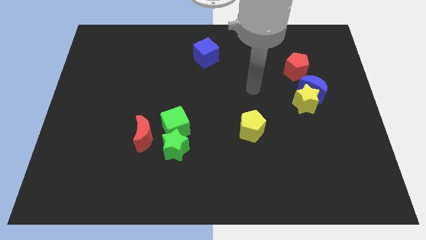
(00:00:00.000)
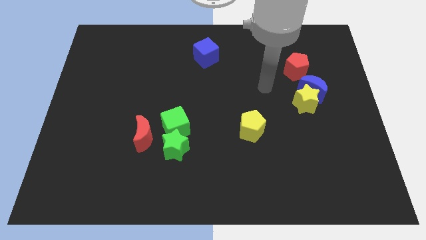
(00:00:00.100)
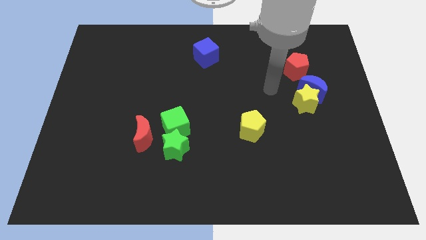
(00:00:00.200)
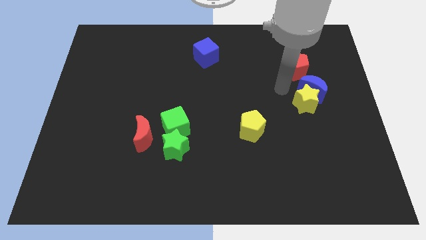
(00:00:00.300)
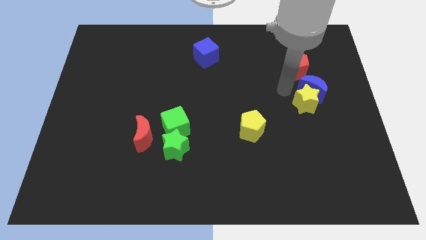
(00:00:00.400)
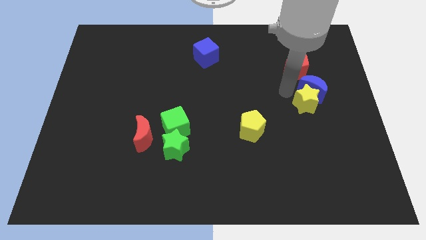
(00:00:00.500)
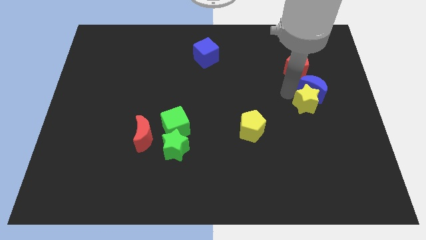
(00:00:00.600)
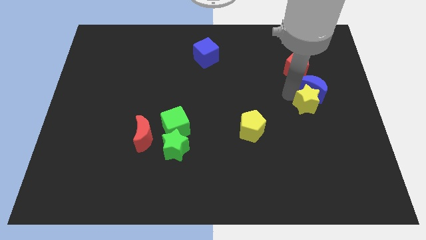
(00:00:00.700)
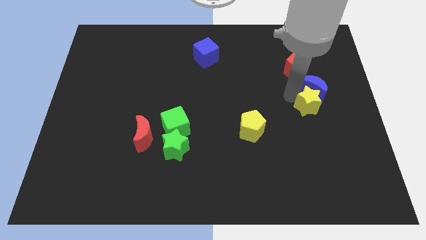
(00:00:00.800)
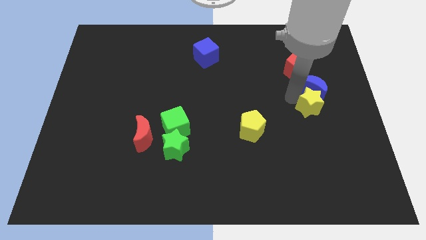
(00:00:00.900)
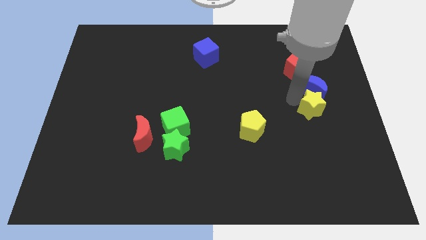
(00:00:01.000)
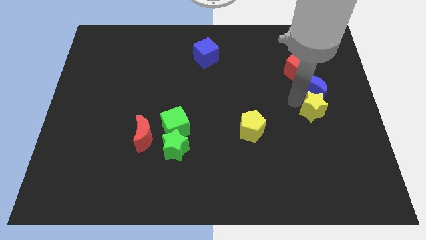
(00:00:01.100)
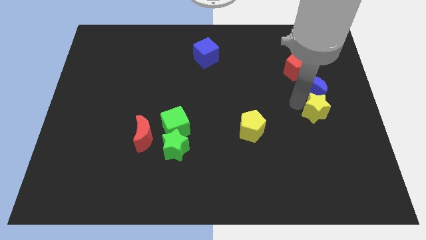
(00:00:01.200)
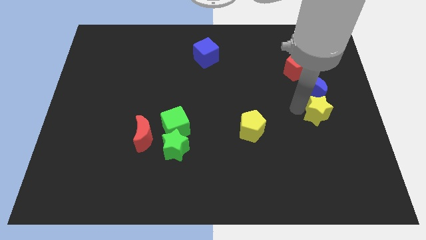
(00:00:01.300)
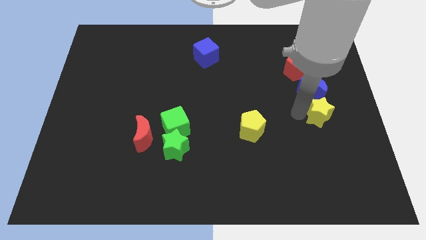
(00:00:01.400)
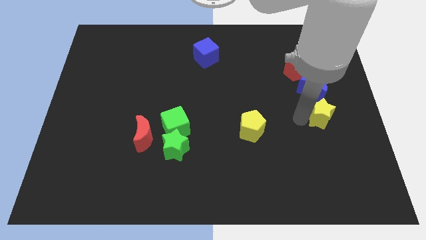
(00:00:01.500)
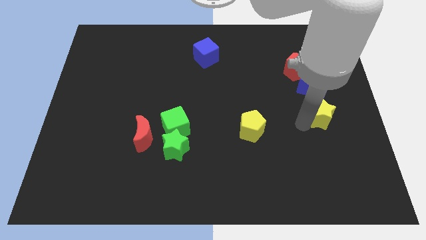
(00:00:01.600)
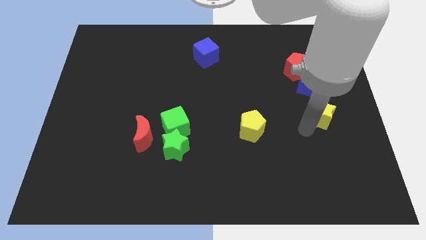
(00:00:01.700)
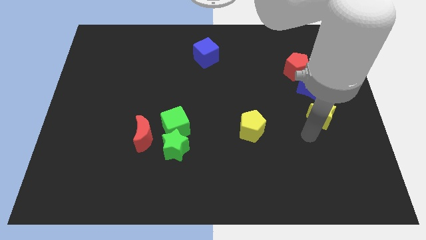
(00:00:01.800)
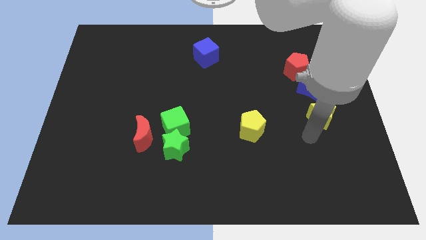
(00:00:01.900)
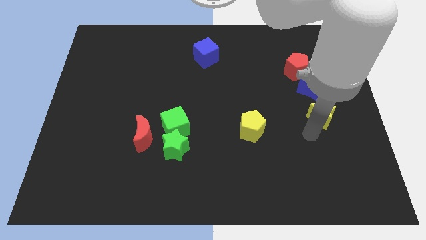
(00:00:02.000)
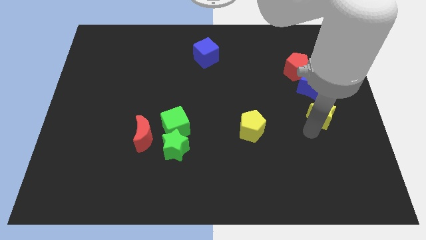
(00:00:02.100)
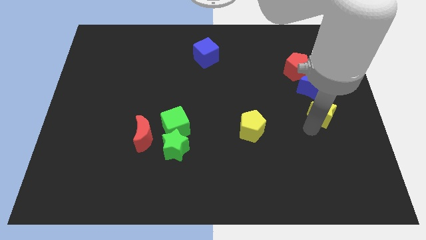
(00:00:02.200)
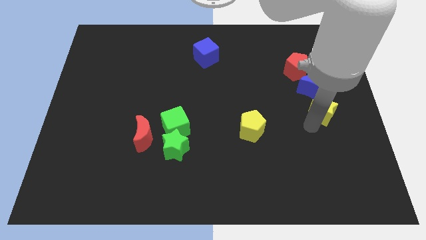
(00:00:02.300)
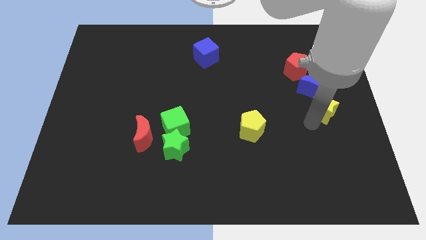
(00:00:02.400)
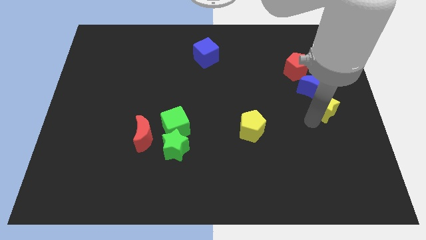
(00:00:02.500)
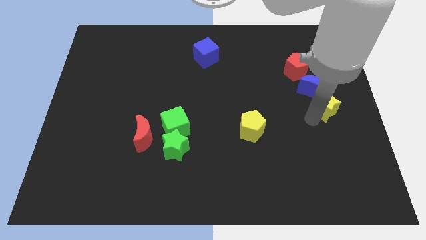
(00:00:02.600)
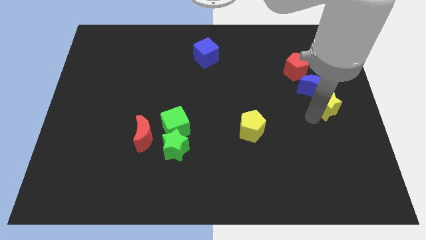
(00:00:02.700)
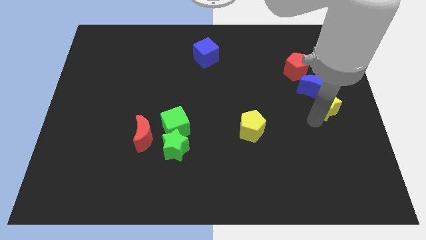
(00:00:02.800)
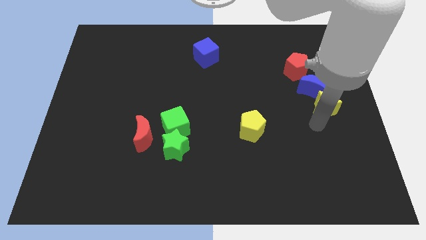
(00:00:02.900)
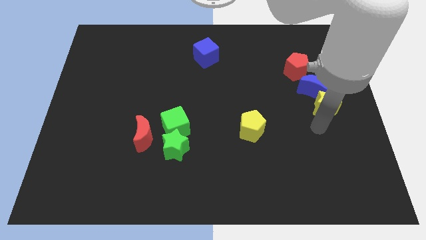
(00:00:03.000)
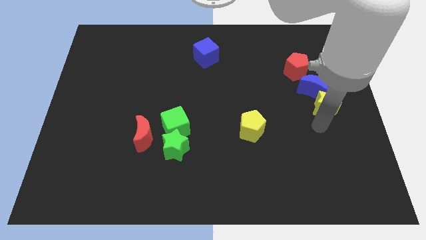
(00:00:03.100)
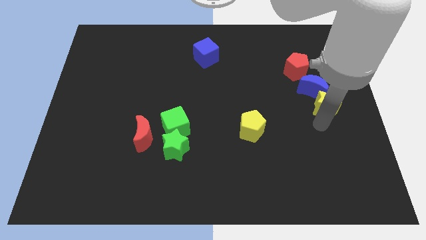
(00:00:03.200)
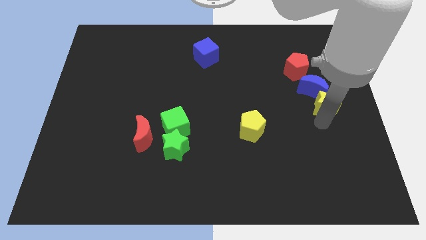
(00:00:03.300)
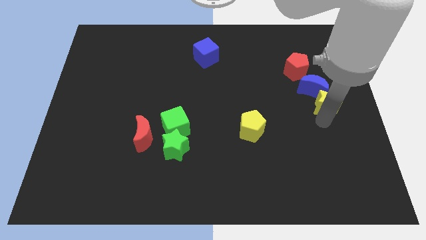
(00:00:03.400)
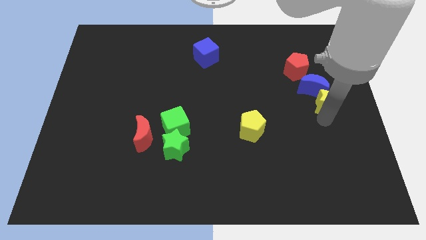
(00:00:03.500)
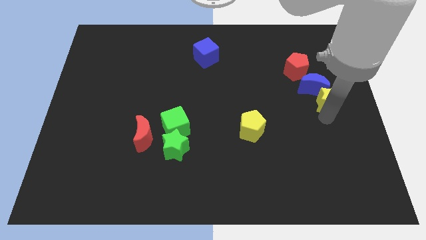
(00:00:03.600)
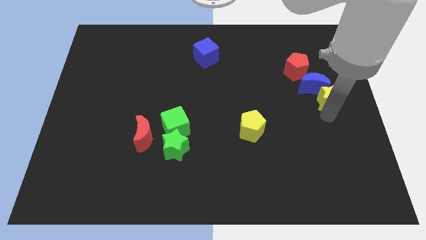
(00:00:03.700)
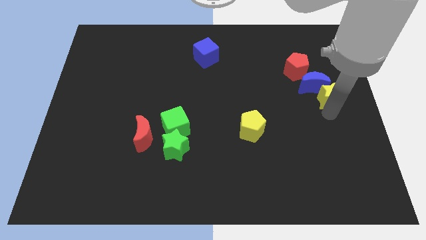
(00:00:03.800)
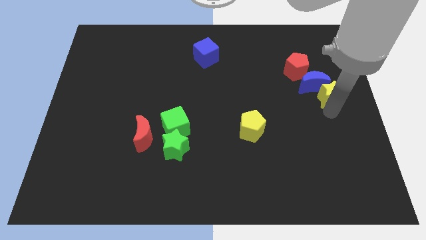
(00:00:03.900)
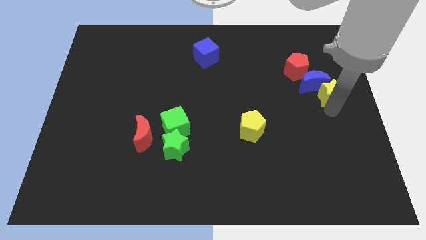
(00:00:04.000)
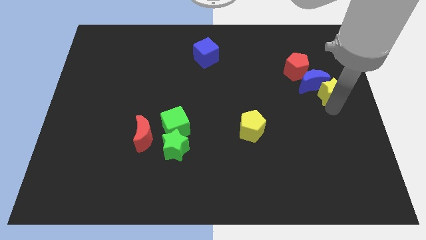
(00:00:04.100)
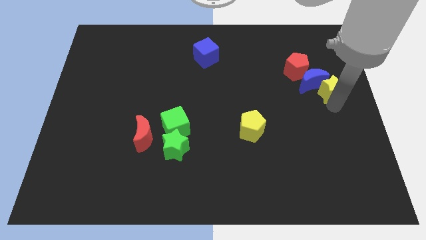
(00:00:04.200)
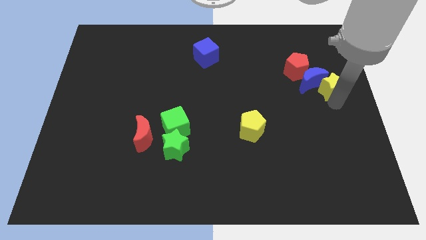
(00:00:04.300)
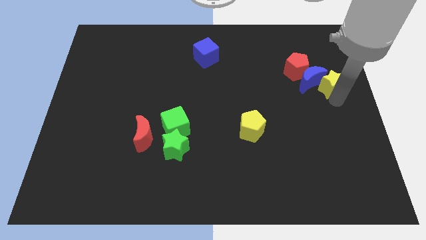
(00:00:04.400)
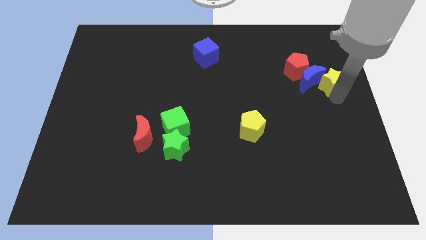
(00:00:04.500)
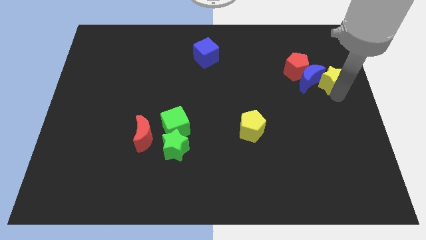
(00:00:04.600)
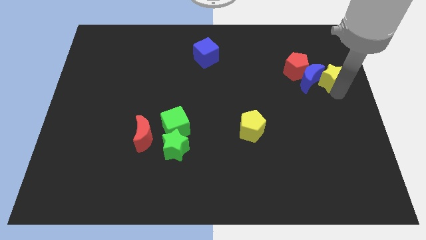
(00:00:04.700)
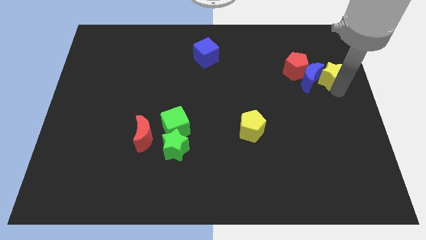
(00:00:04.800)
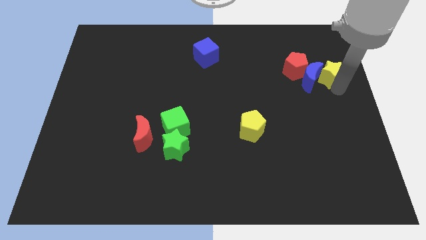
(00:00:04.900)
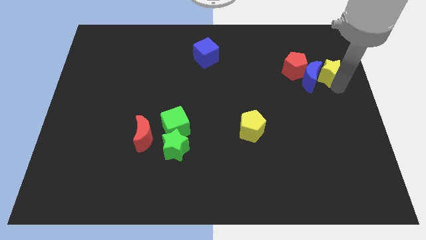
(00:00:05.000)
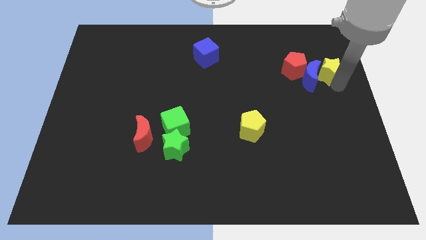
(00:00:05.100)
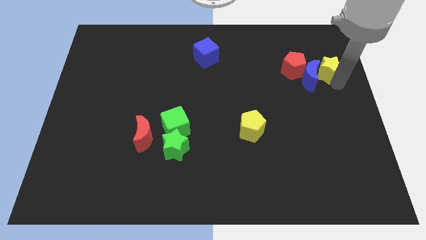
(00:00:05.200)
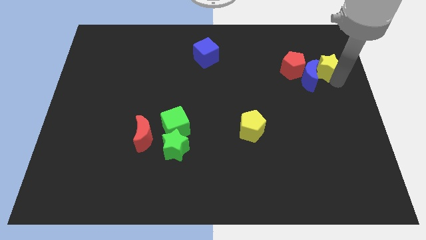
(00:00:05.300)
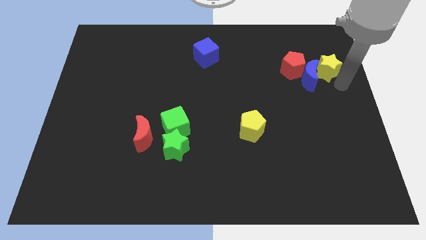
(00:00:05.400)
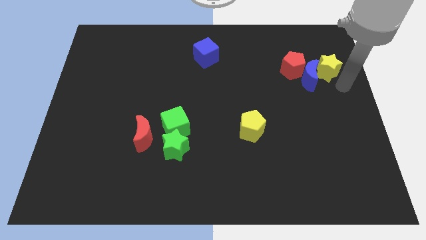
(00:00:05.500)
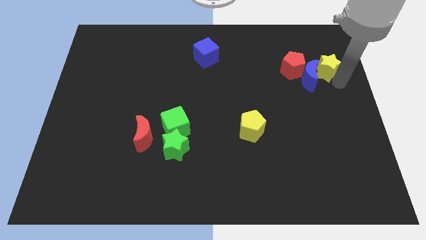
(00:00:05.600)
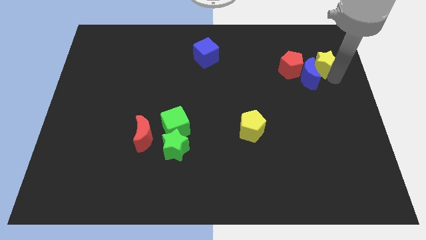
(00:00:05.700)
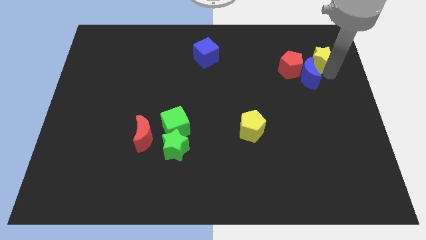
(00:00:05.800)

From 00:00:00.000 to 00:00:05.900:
slide the yellow star diagonally up and to the right of the red pentagon

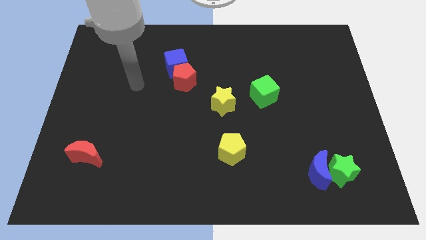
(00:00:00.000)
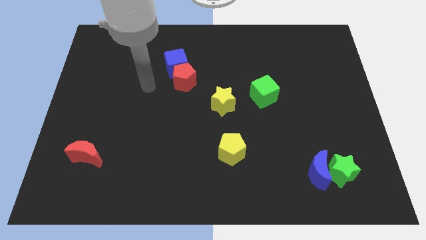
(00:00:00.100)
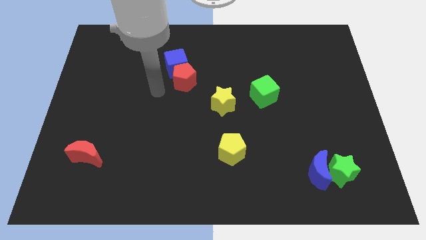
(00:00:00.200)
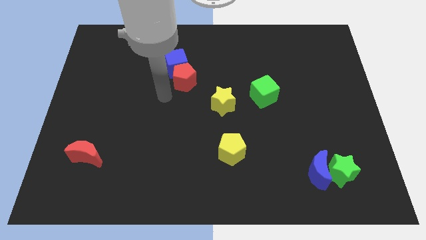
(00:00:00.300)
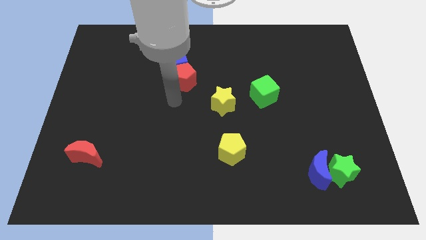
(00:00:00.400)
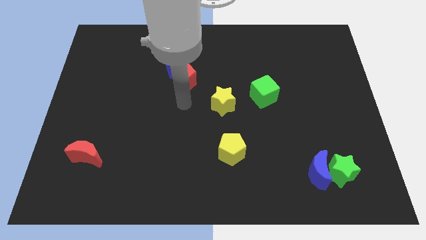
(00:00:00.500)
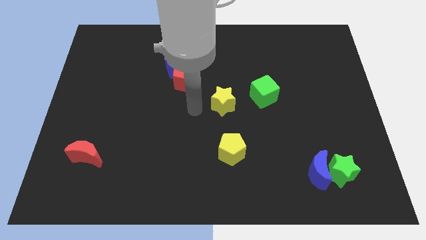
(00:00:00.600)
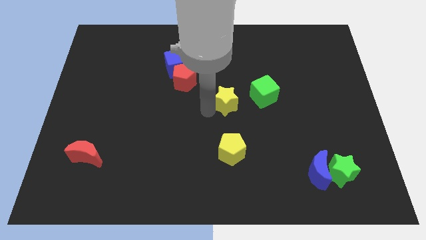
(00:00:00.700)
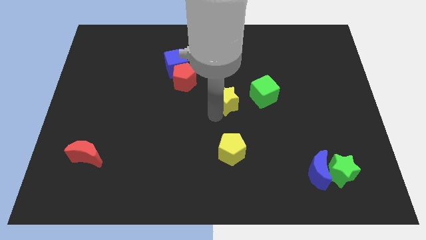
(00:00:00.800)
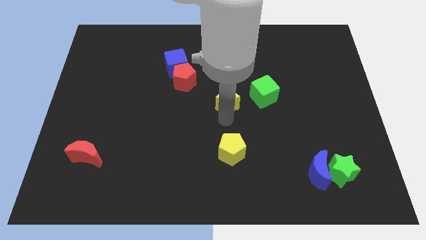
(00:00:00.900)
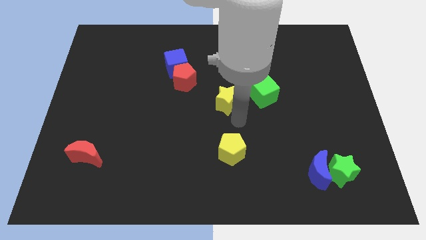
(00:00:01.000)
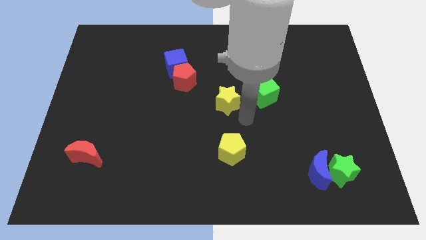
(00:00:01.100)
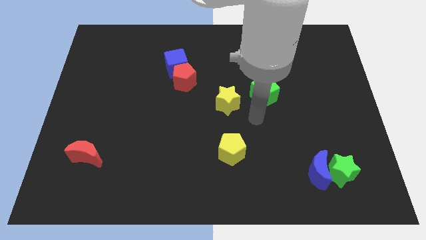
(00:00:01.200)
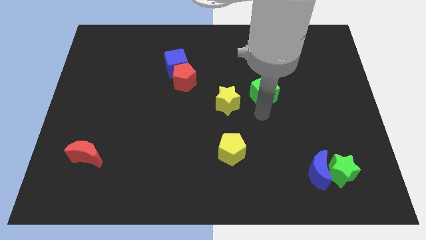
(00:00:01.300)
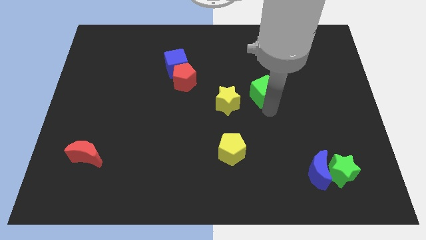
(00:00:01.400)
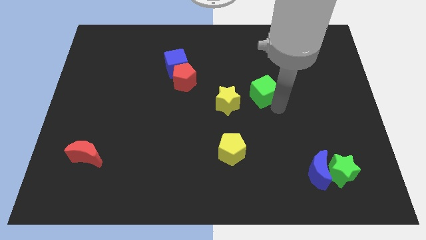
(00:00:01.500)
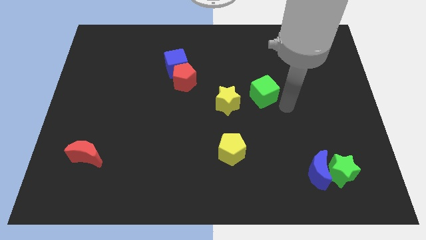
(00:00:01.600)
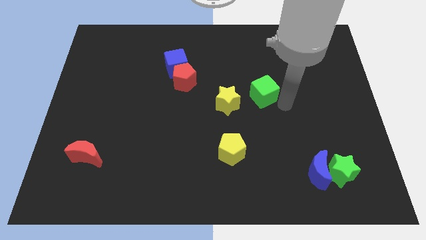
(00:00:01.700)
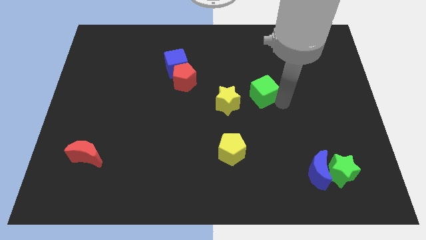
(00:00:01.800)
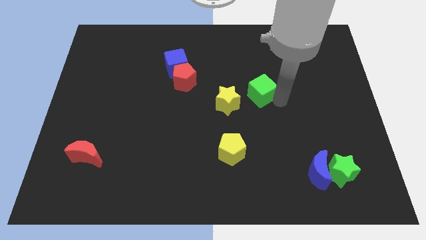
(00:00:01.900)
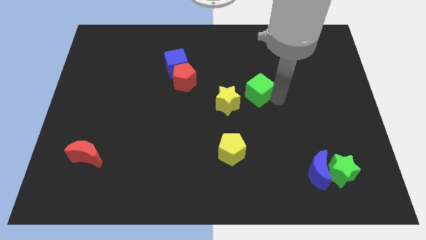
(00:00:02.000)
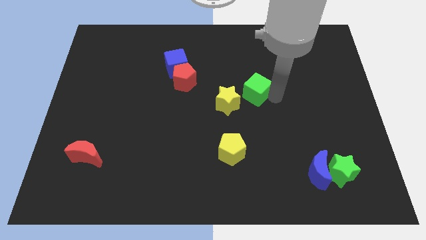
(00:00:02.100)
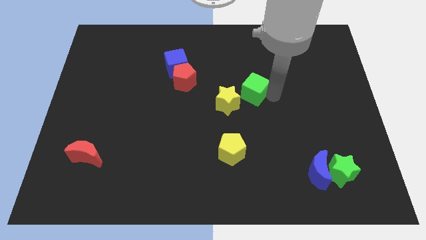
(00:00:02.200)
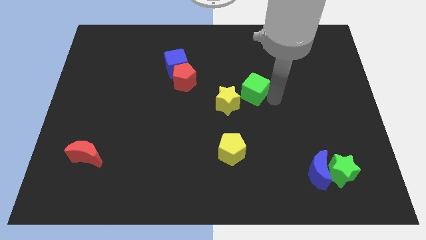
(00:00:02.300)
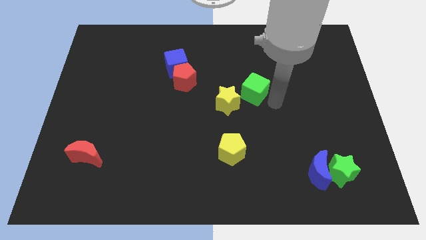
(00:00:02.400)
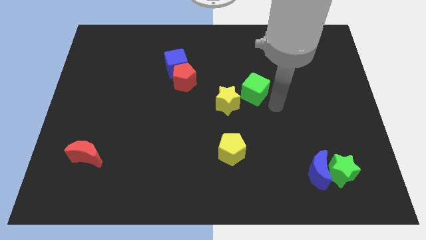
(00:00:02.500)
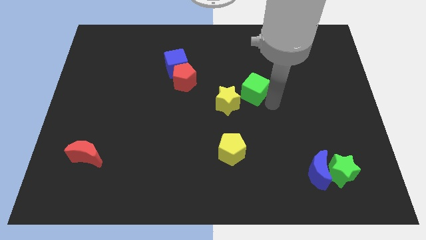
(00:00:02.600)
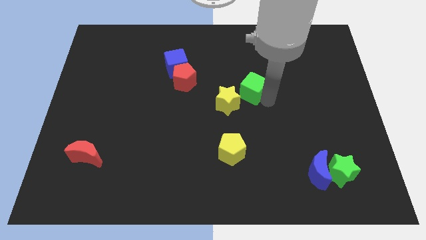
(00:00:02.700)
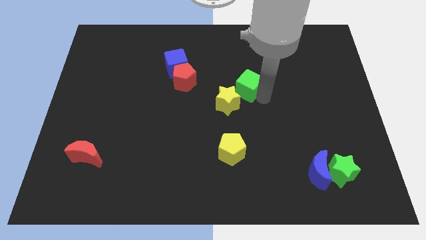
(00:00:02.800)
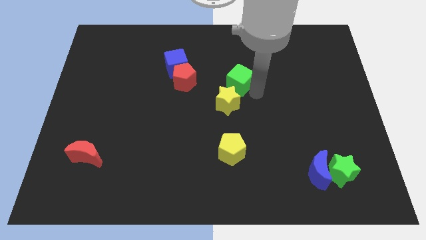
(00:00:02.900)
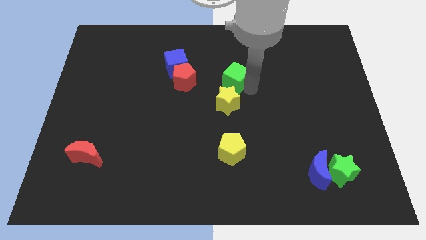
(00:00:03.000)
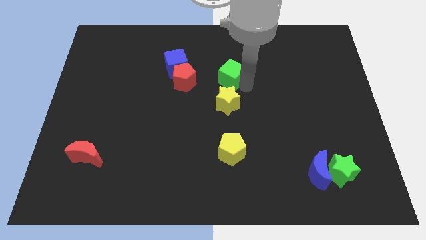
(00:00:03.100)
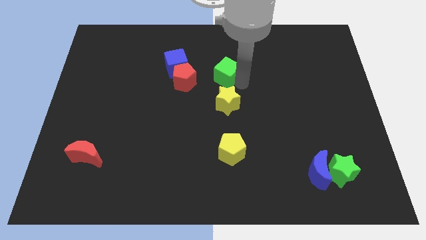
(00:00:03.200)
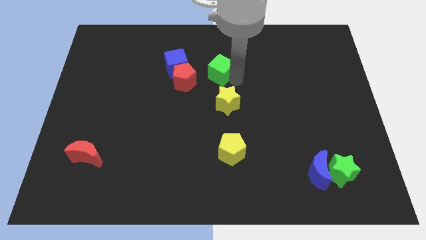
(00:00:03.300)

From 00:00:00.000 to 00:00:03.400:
push the green cube to the top right of the red pentagon
